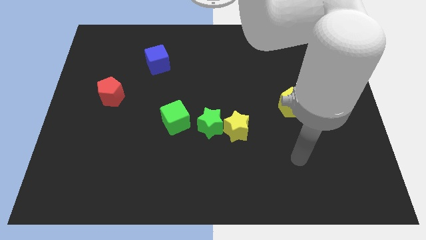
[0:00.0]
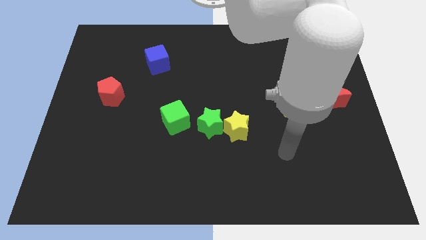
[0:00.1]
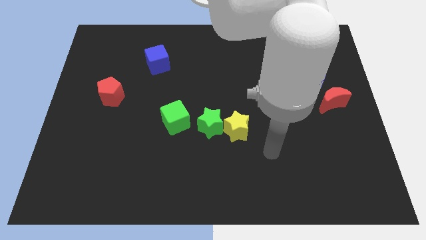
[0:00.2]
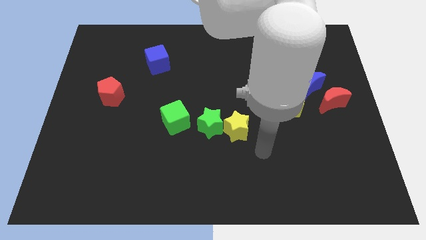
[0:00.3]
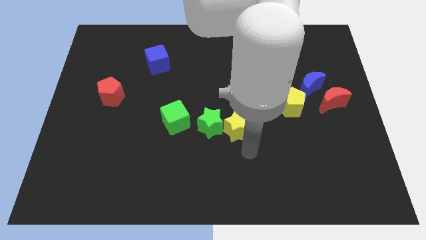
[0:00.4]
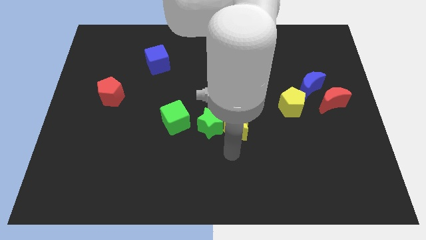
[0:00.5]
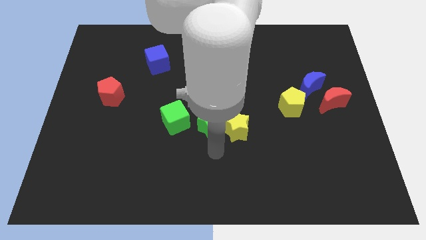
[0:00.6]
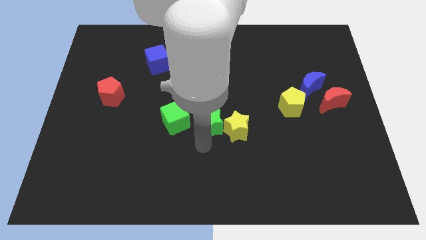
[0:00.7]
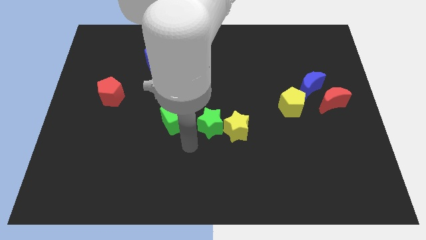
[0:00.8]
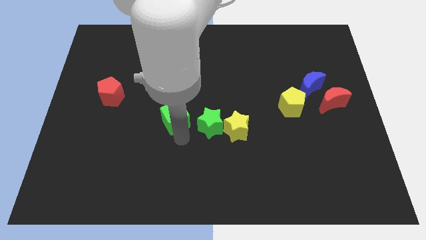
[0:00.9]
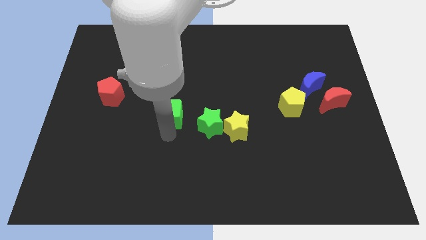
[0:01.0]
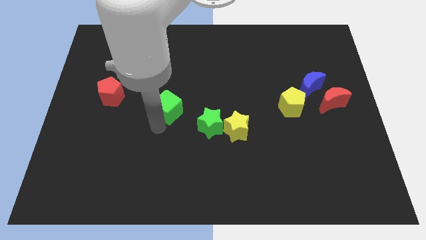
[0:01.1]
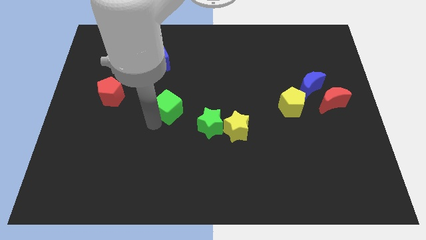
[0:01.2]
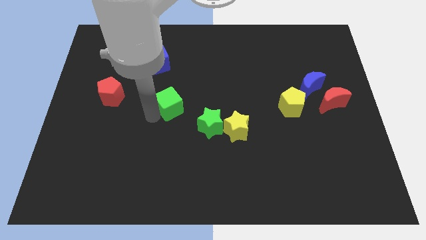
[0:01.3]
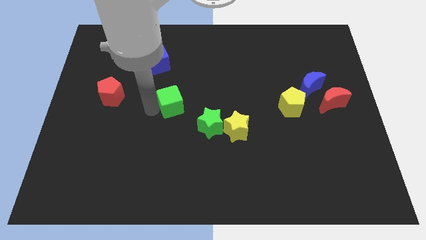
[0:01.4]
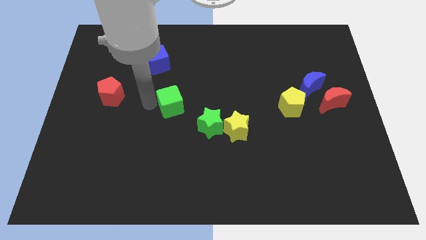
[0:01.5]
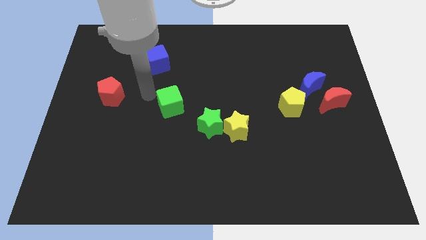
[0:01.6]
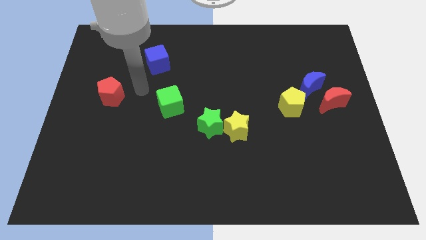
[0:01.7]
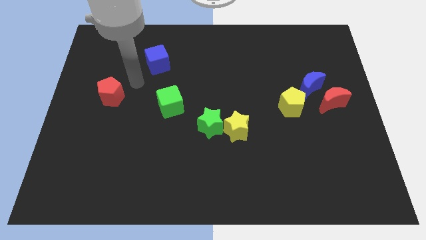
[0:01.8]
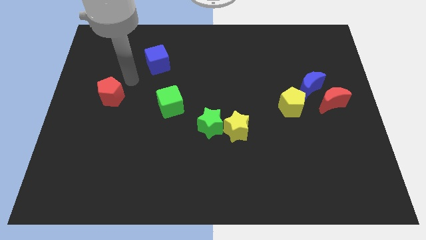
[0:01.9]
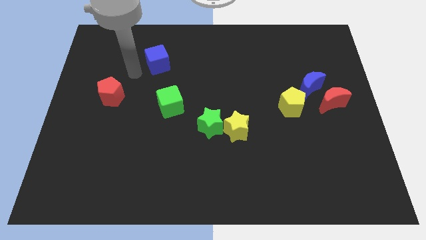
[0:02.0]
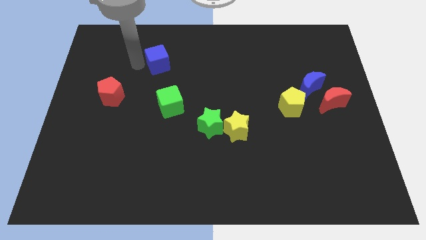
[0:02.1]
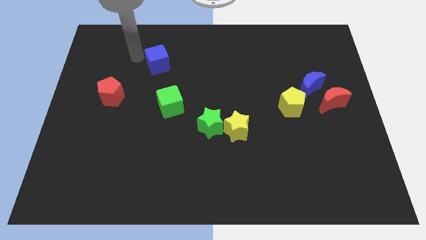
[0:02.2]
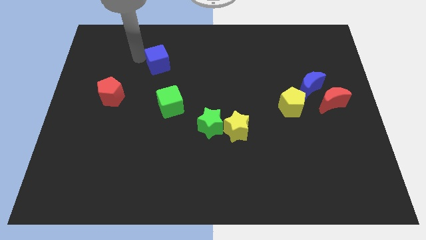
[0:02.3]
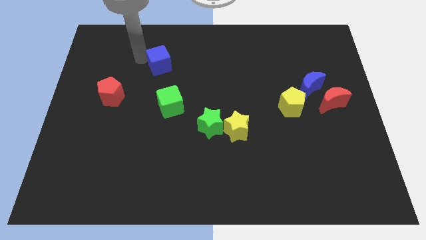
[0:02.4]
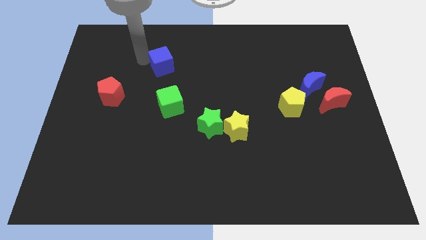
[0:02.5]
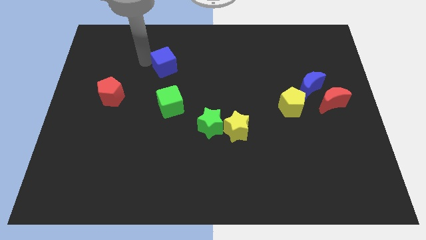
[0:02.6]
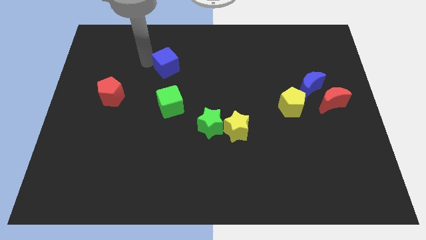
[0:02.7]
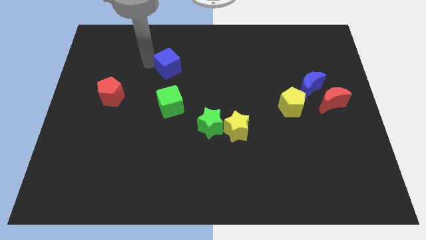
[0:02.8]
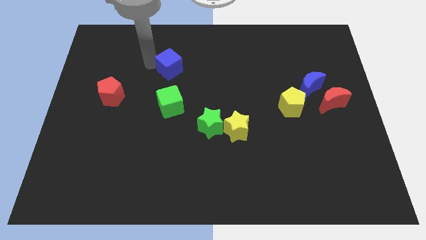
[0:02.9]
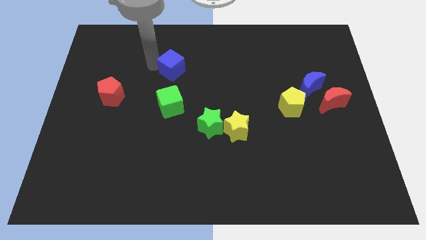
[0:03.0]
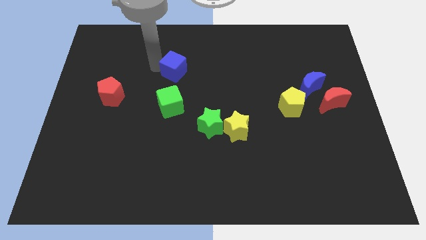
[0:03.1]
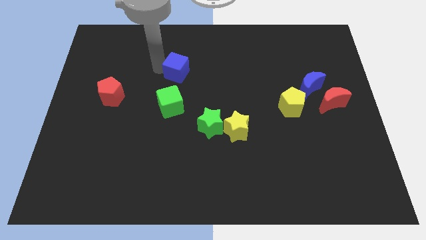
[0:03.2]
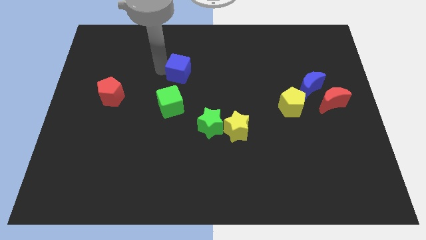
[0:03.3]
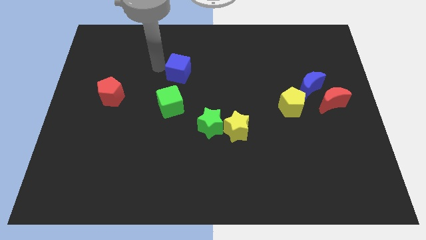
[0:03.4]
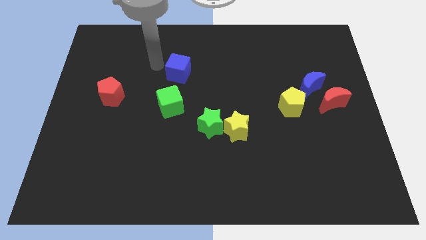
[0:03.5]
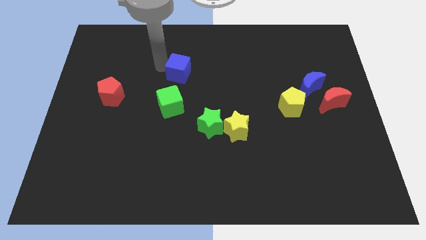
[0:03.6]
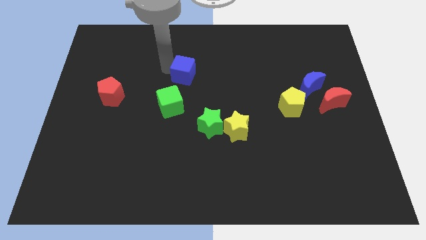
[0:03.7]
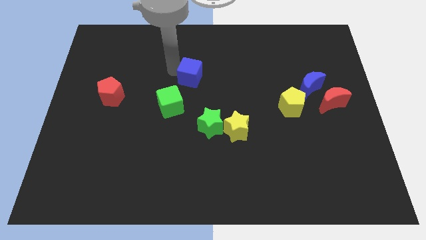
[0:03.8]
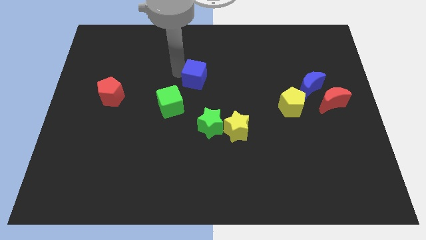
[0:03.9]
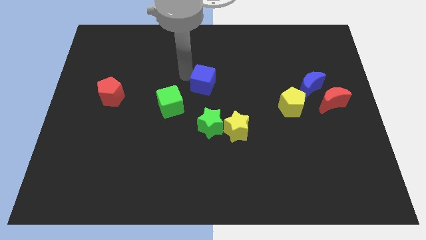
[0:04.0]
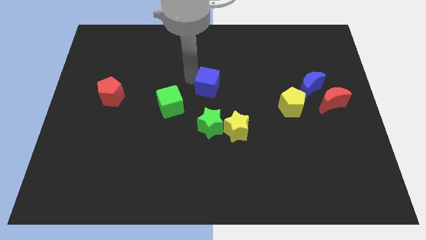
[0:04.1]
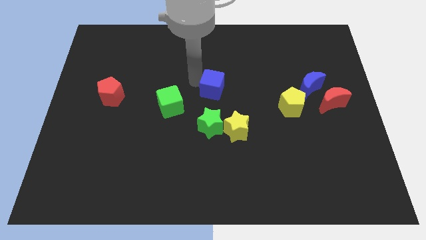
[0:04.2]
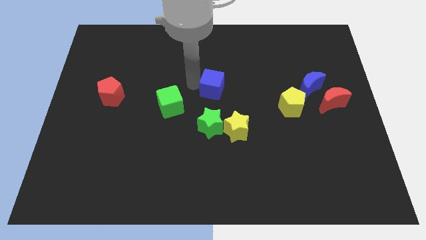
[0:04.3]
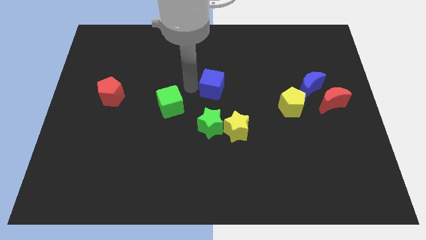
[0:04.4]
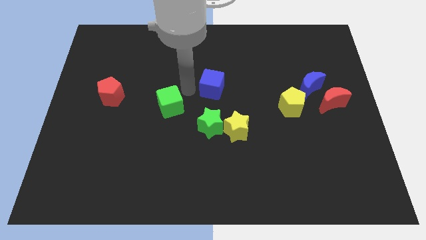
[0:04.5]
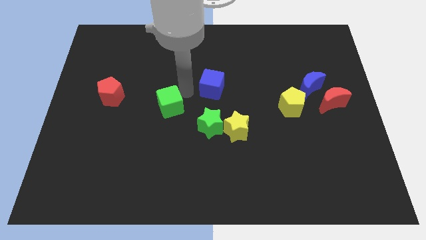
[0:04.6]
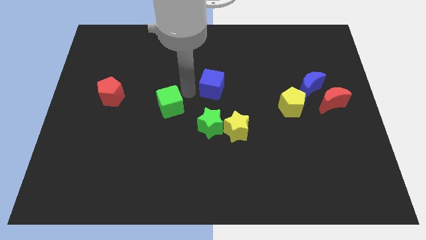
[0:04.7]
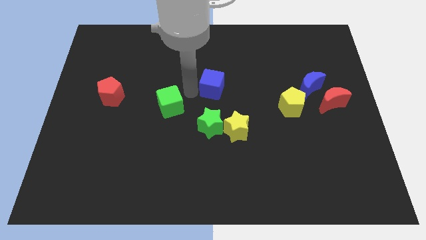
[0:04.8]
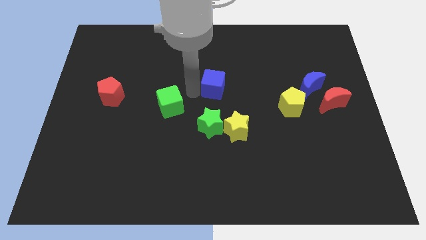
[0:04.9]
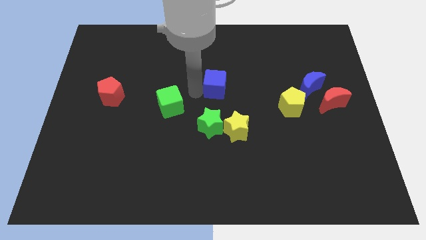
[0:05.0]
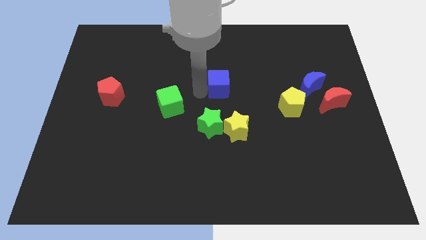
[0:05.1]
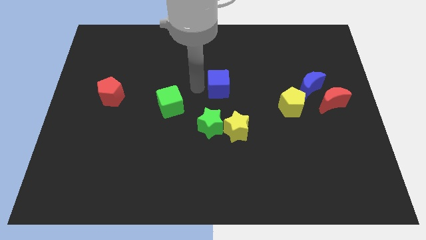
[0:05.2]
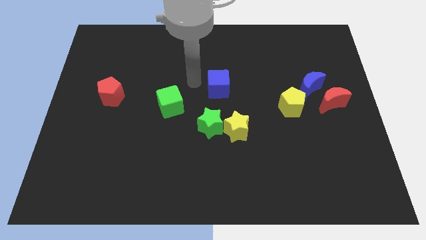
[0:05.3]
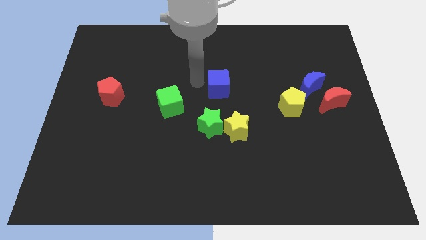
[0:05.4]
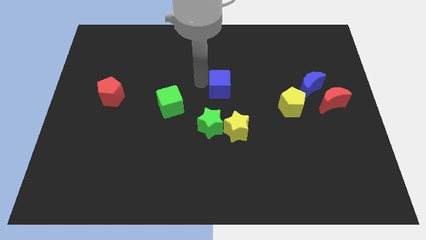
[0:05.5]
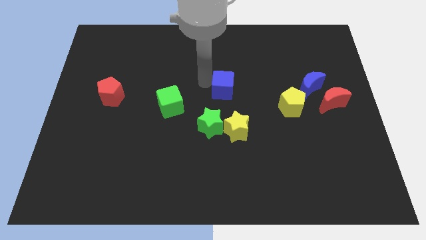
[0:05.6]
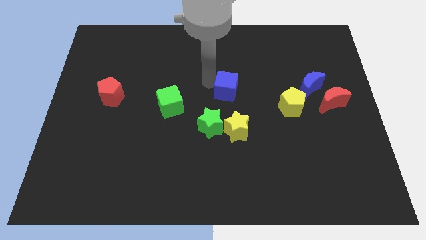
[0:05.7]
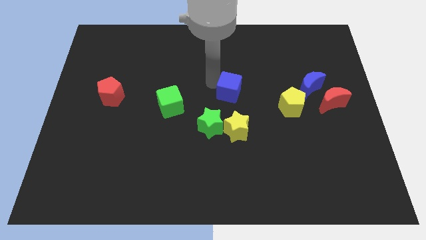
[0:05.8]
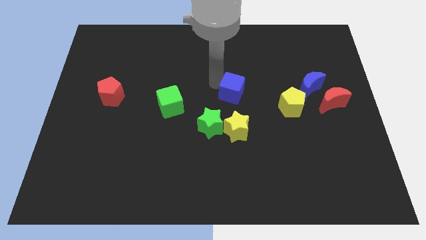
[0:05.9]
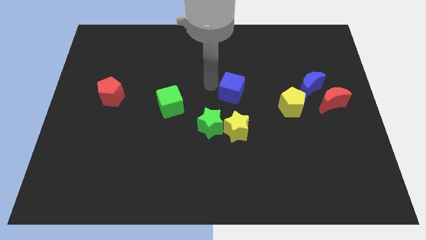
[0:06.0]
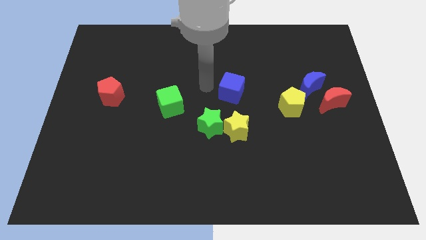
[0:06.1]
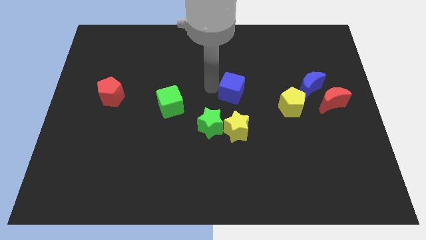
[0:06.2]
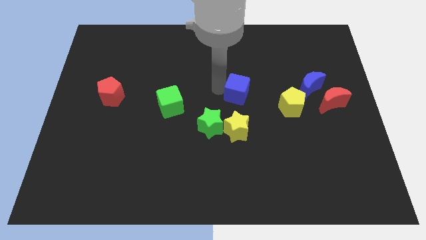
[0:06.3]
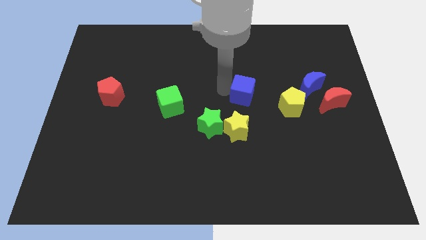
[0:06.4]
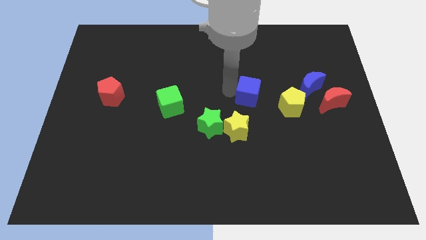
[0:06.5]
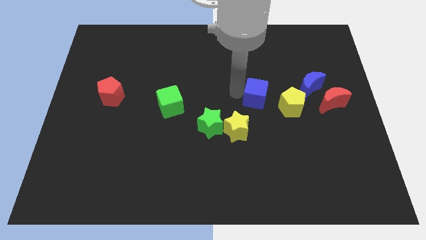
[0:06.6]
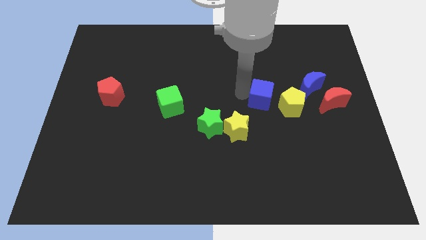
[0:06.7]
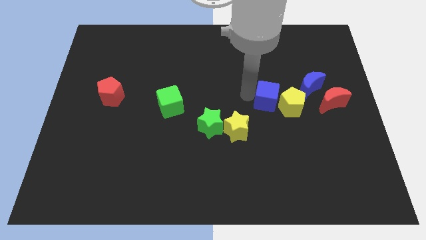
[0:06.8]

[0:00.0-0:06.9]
push the blue cube next to the yellow pentagon
